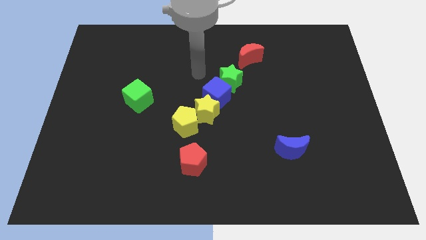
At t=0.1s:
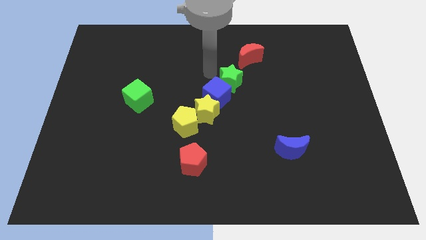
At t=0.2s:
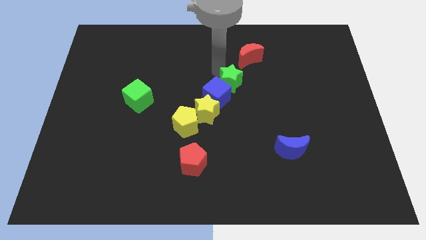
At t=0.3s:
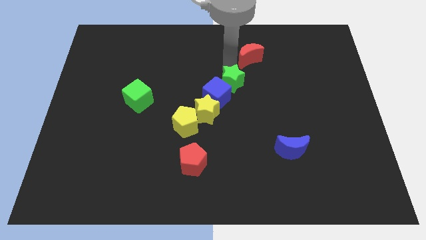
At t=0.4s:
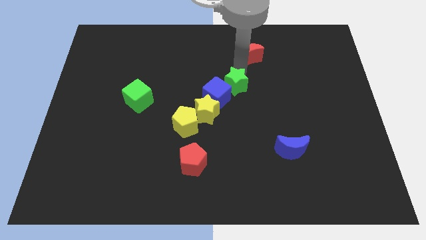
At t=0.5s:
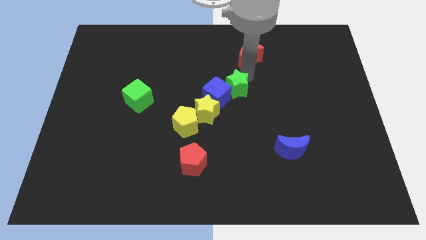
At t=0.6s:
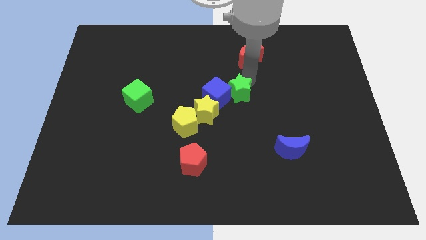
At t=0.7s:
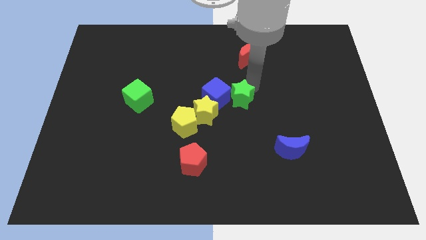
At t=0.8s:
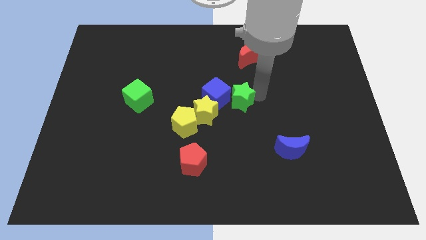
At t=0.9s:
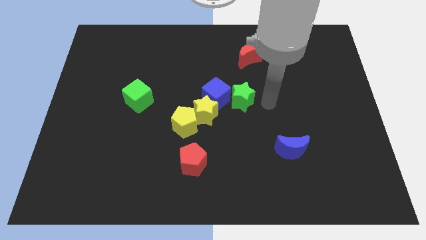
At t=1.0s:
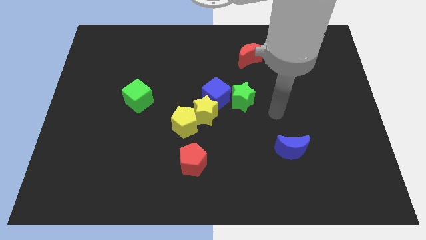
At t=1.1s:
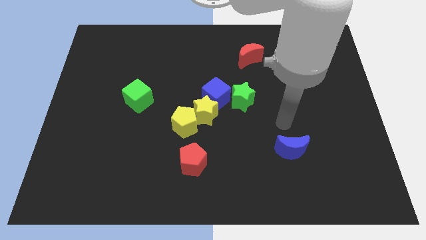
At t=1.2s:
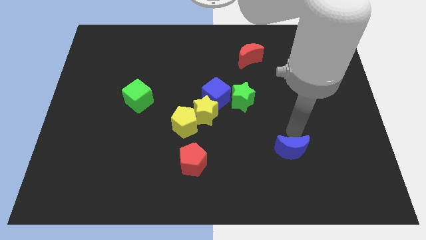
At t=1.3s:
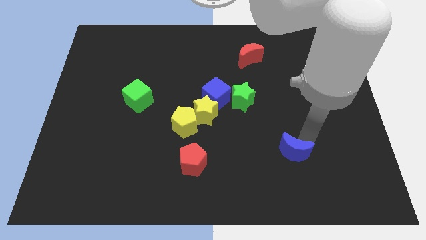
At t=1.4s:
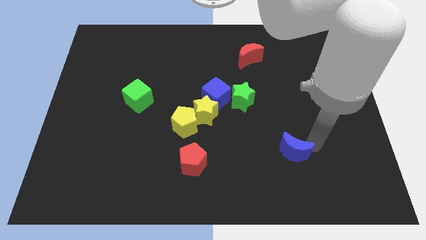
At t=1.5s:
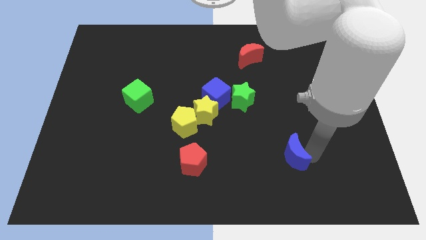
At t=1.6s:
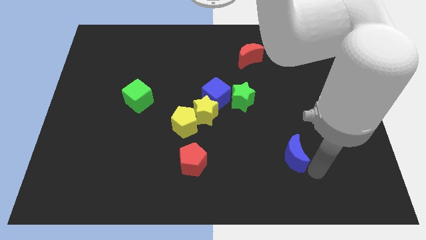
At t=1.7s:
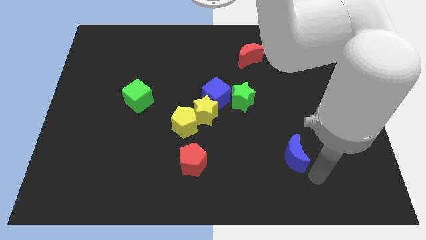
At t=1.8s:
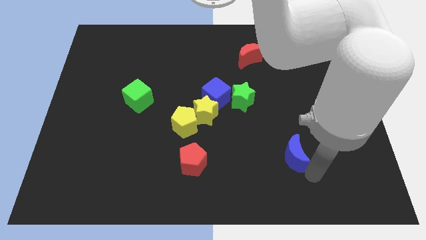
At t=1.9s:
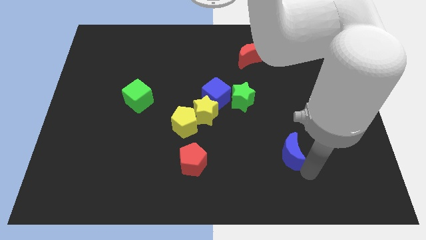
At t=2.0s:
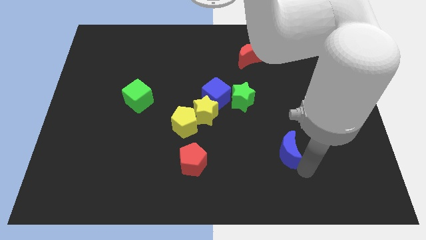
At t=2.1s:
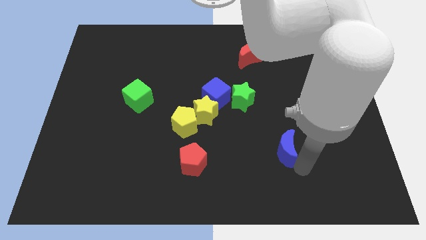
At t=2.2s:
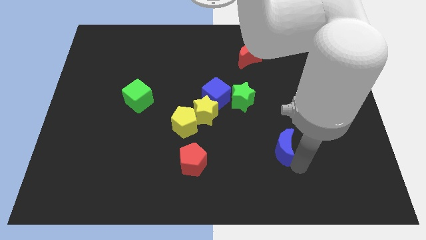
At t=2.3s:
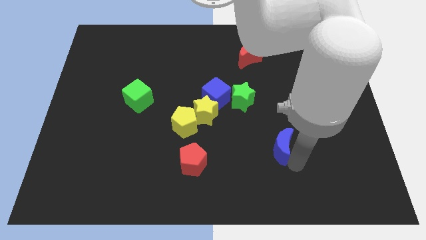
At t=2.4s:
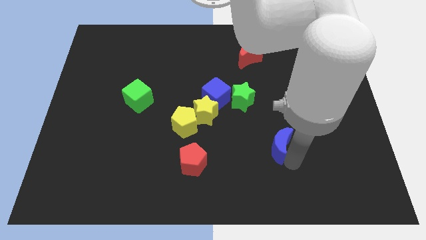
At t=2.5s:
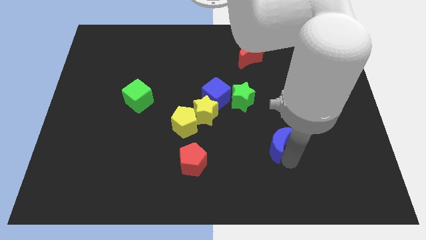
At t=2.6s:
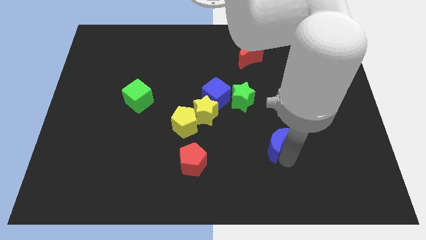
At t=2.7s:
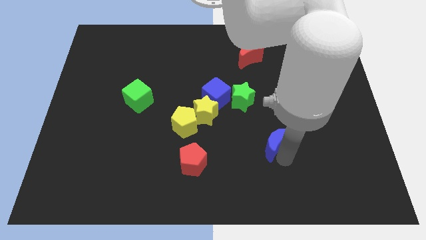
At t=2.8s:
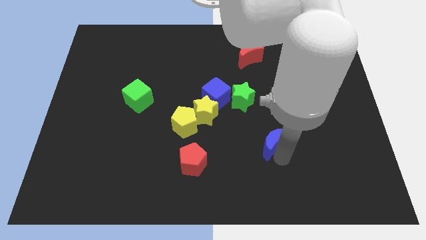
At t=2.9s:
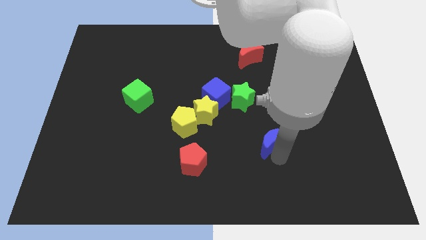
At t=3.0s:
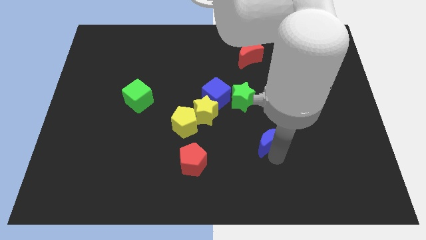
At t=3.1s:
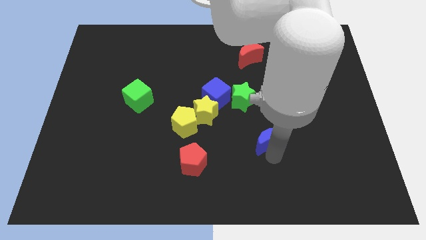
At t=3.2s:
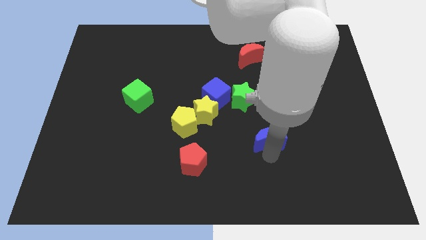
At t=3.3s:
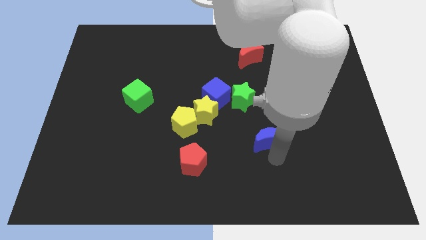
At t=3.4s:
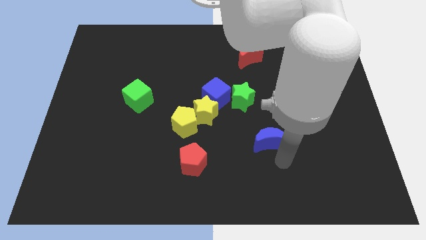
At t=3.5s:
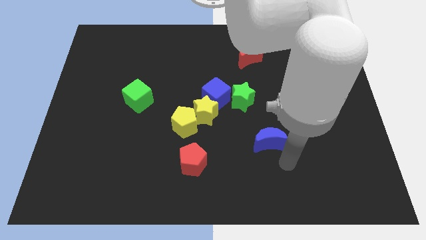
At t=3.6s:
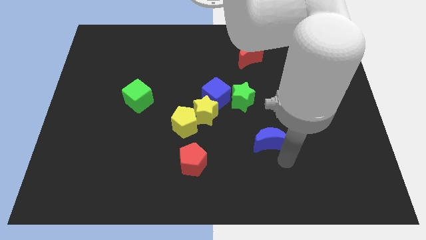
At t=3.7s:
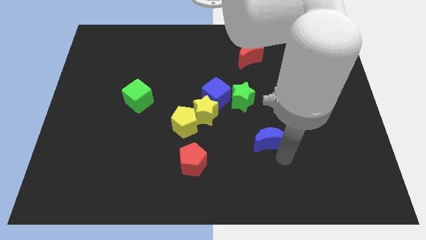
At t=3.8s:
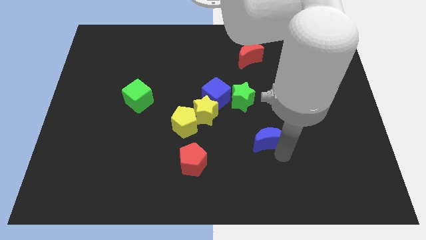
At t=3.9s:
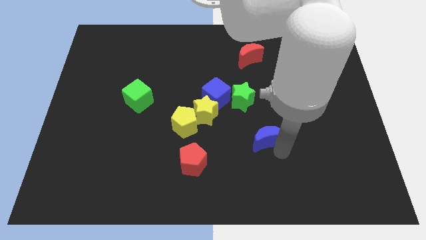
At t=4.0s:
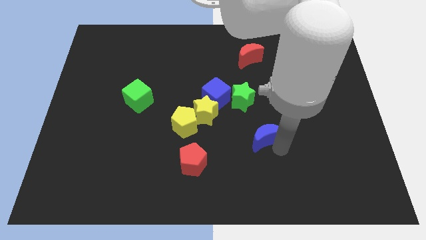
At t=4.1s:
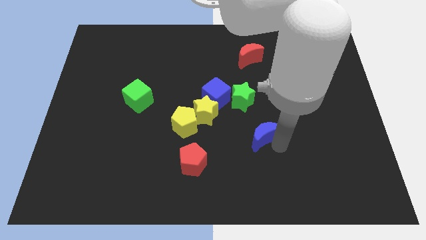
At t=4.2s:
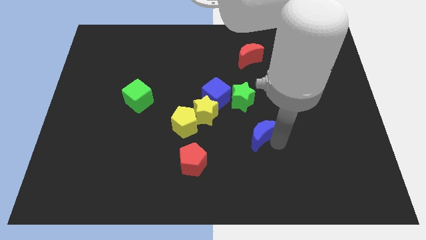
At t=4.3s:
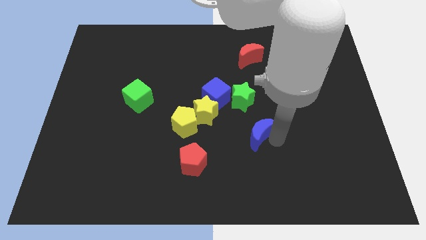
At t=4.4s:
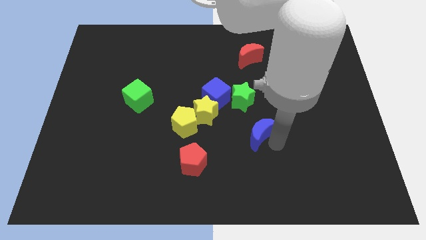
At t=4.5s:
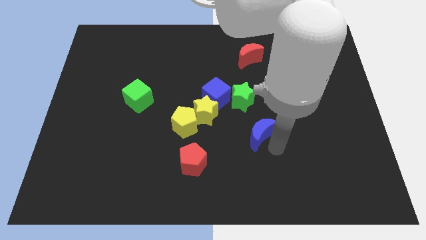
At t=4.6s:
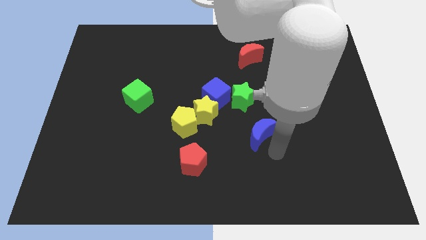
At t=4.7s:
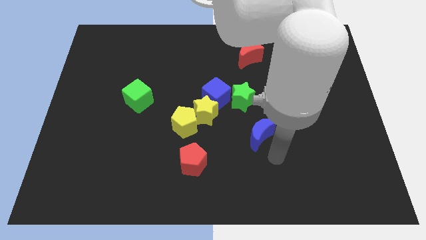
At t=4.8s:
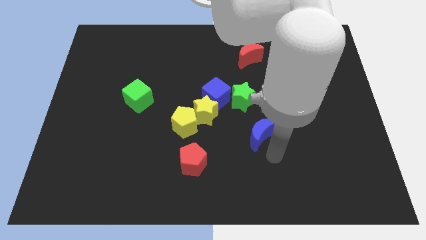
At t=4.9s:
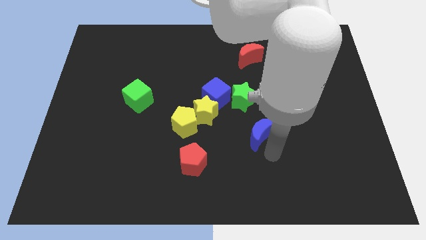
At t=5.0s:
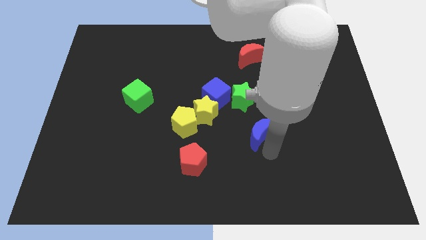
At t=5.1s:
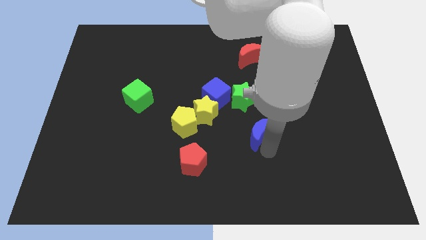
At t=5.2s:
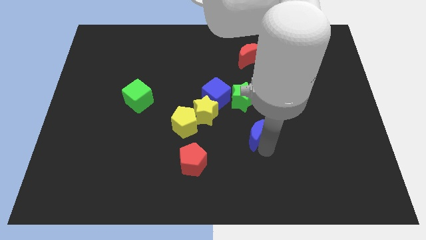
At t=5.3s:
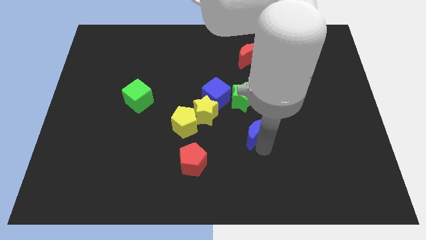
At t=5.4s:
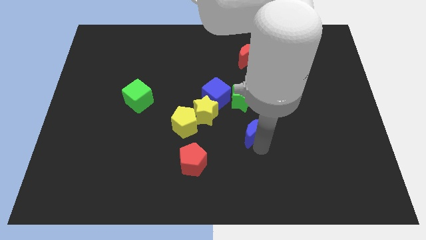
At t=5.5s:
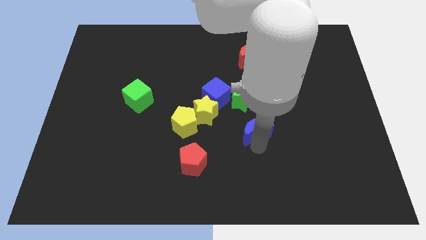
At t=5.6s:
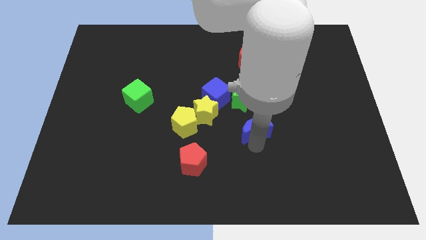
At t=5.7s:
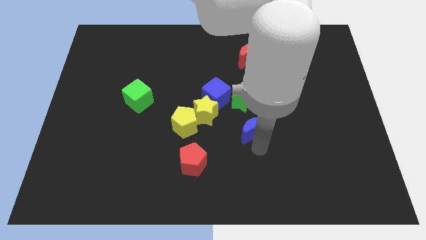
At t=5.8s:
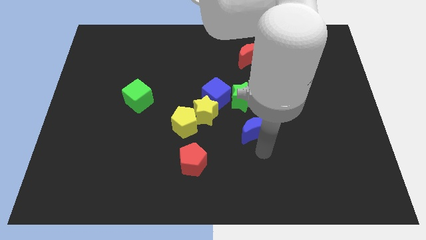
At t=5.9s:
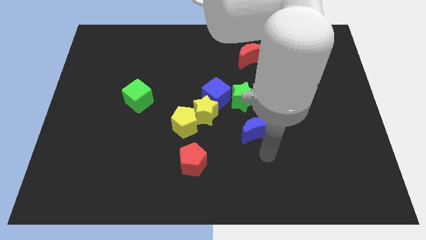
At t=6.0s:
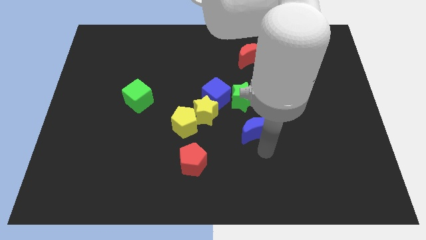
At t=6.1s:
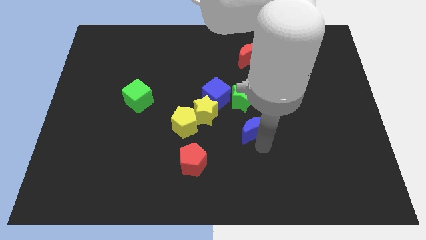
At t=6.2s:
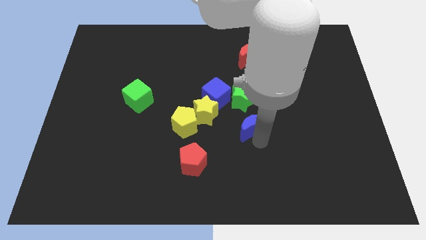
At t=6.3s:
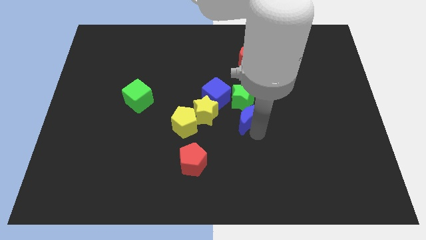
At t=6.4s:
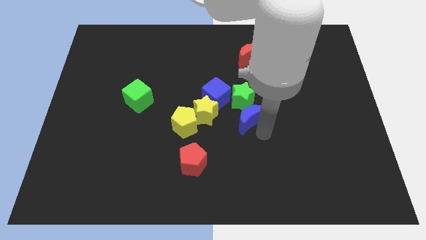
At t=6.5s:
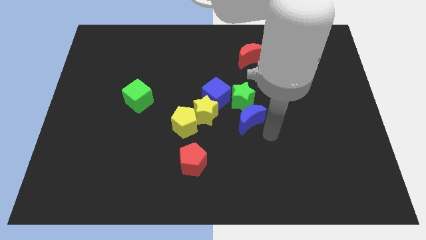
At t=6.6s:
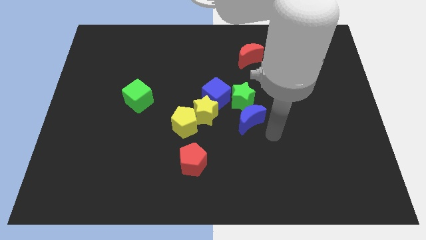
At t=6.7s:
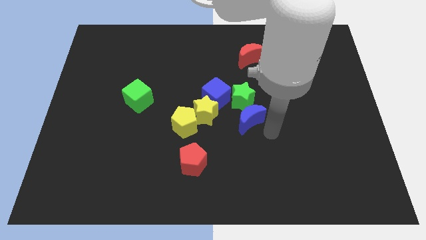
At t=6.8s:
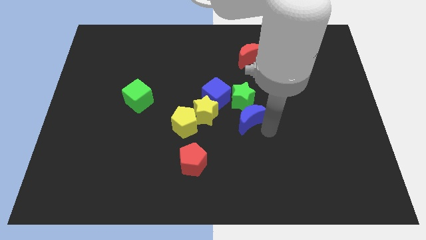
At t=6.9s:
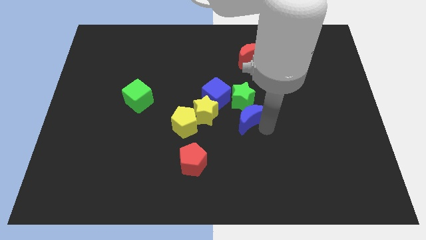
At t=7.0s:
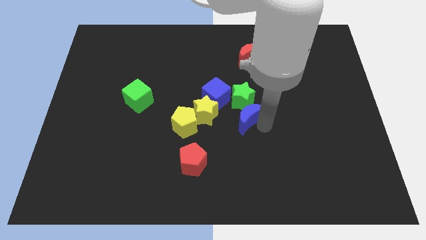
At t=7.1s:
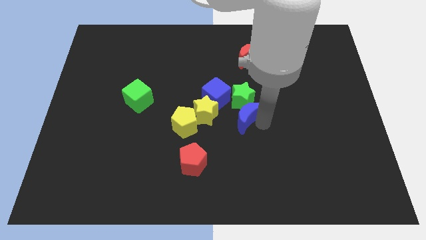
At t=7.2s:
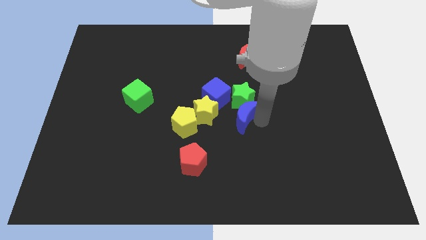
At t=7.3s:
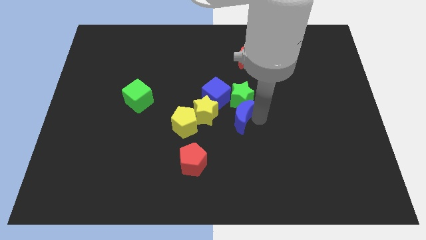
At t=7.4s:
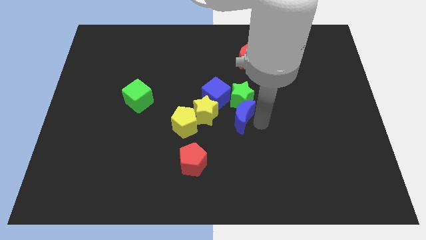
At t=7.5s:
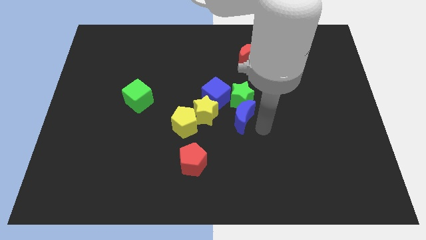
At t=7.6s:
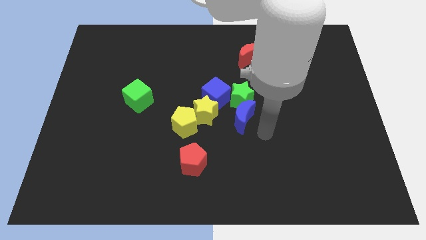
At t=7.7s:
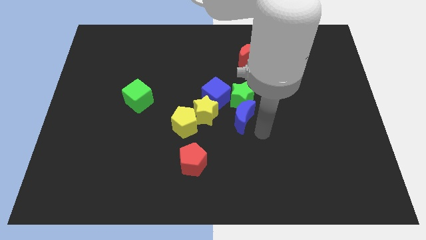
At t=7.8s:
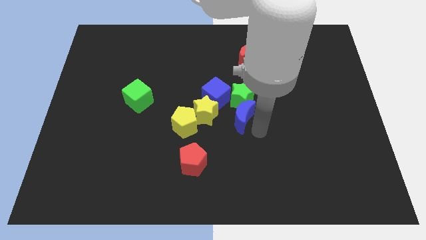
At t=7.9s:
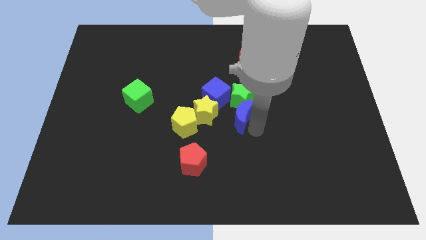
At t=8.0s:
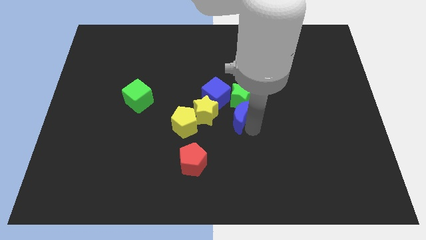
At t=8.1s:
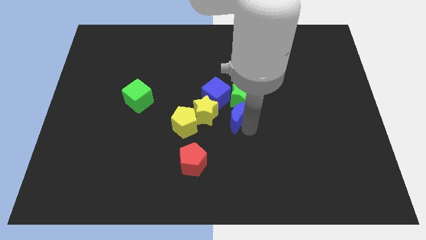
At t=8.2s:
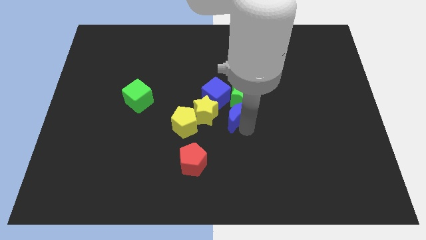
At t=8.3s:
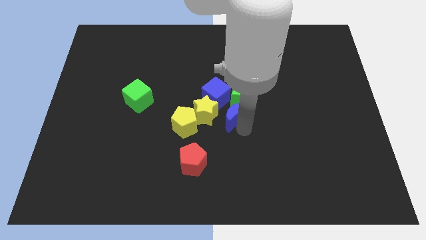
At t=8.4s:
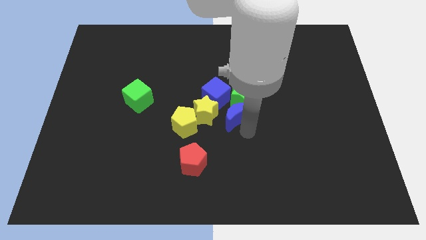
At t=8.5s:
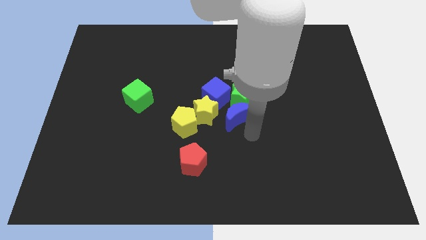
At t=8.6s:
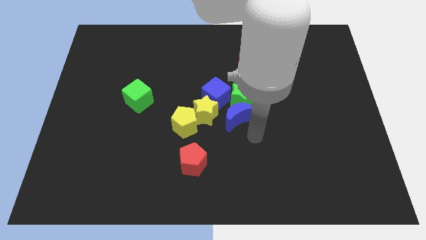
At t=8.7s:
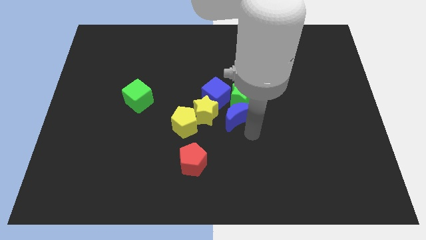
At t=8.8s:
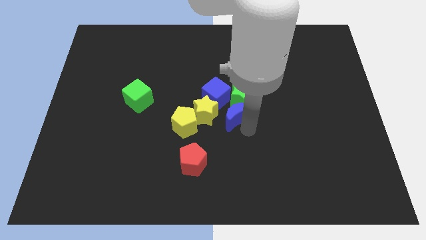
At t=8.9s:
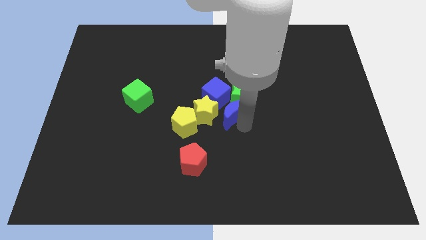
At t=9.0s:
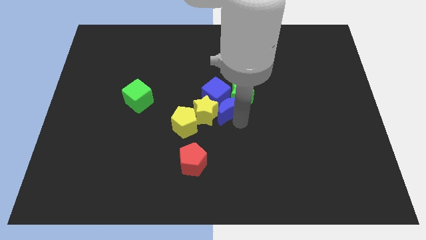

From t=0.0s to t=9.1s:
put the blue moon to the blue cube
